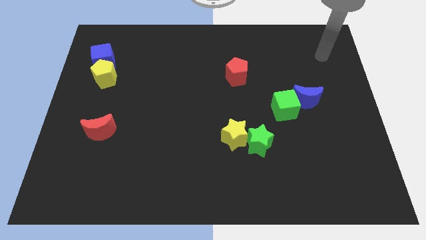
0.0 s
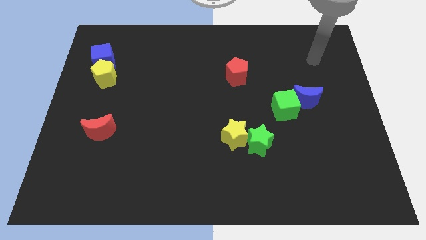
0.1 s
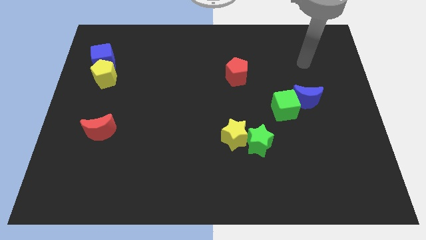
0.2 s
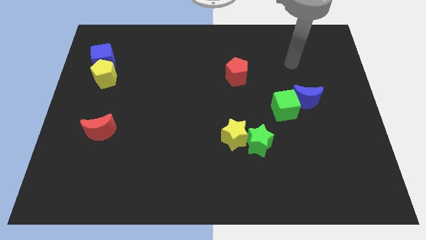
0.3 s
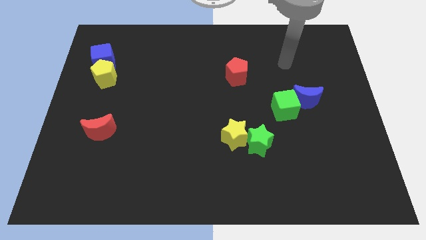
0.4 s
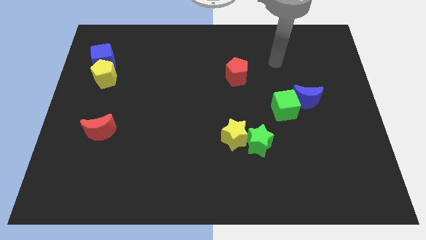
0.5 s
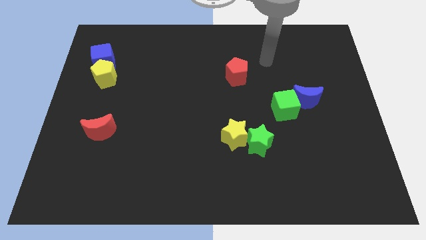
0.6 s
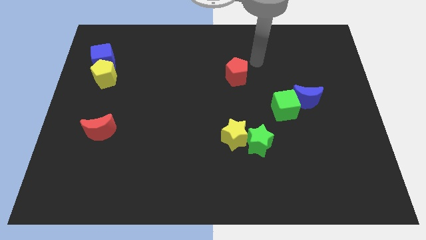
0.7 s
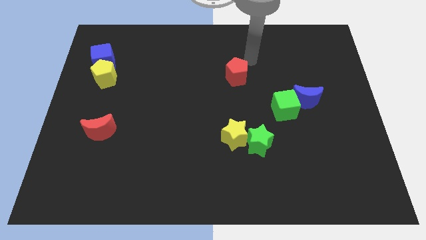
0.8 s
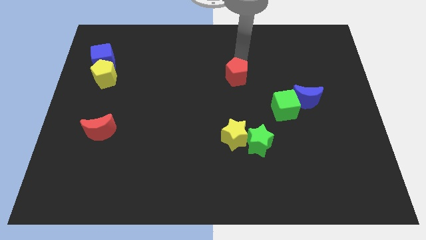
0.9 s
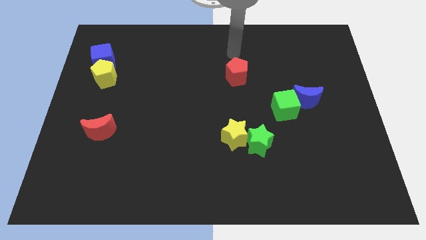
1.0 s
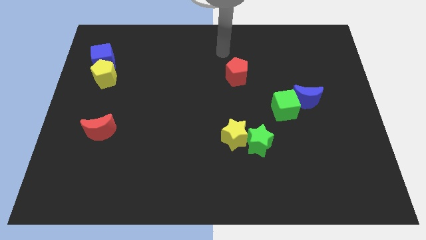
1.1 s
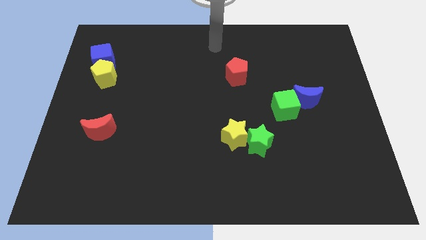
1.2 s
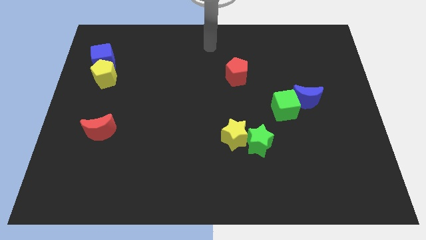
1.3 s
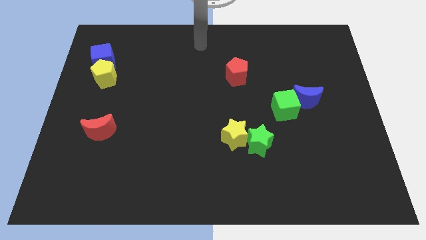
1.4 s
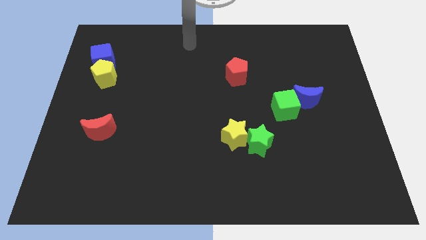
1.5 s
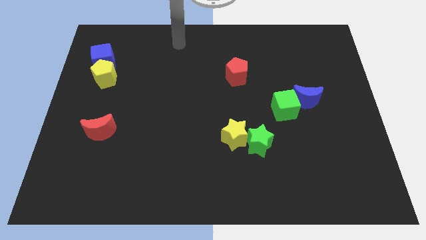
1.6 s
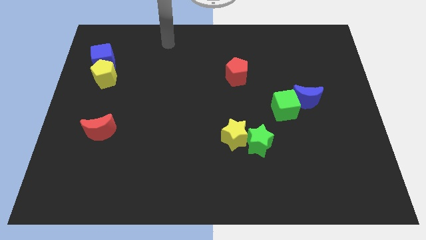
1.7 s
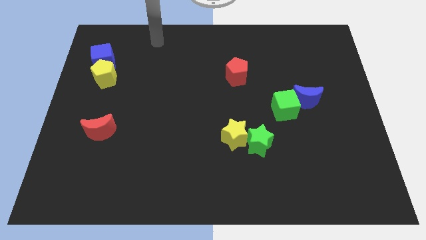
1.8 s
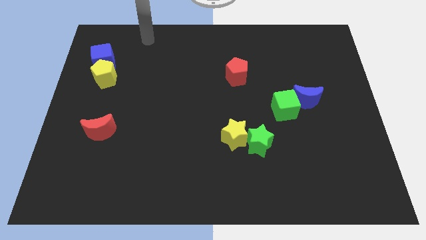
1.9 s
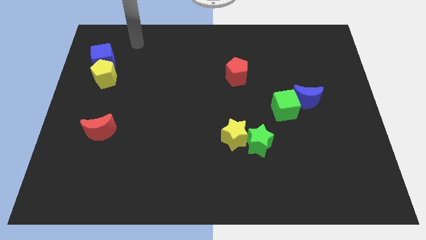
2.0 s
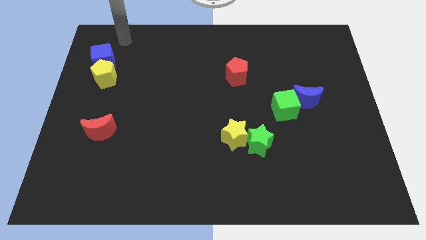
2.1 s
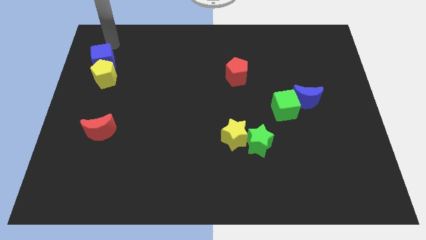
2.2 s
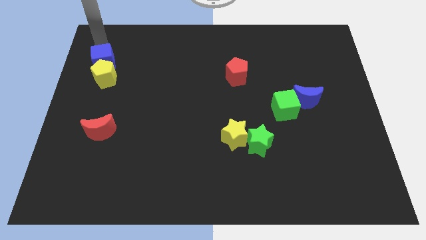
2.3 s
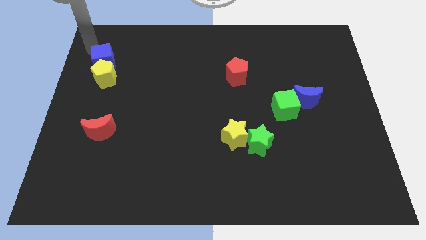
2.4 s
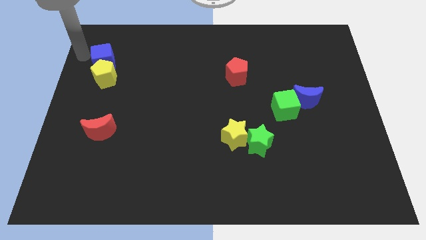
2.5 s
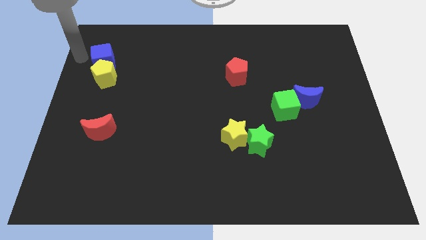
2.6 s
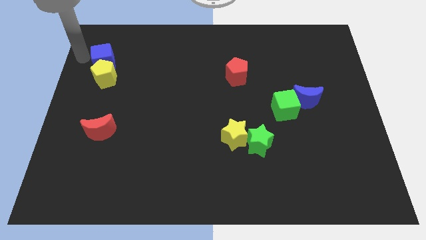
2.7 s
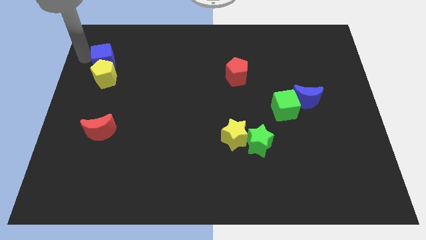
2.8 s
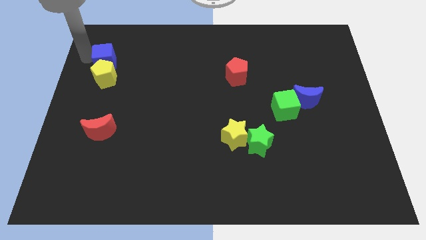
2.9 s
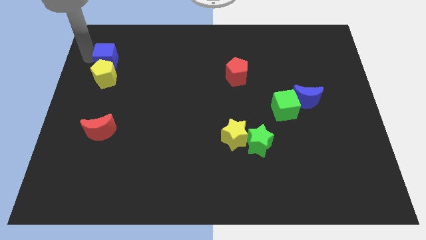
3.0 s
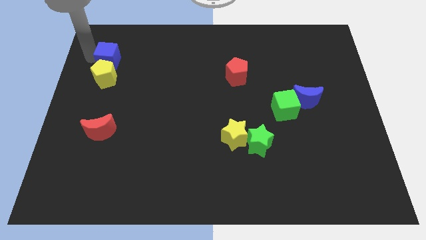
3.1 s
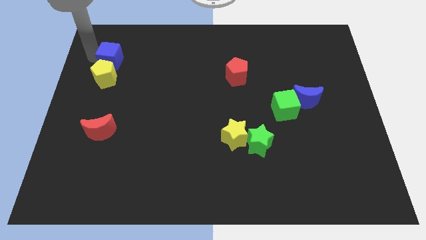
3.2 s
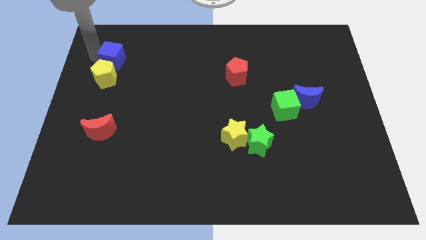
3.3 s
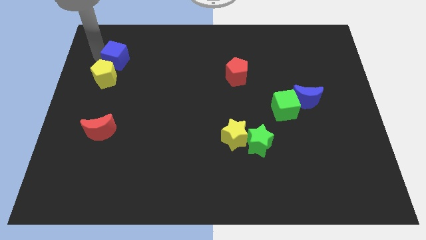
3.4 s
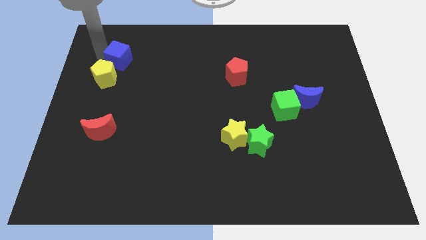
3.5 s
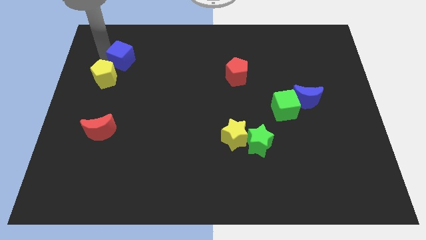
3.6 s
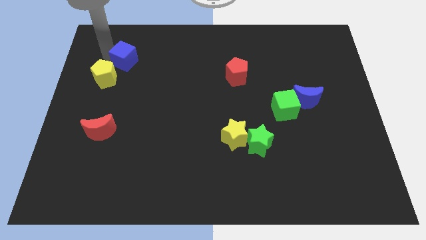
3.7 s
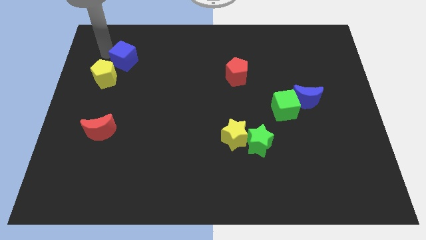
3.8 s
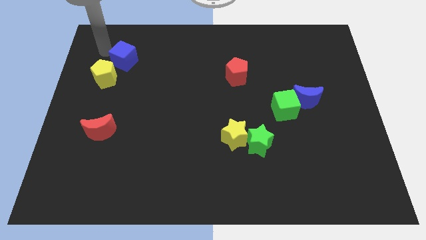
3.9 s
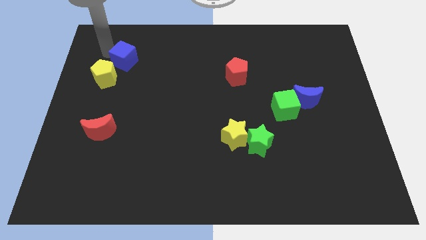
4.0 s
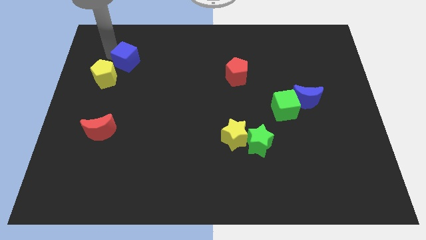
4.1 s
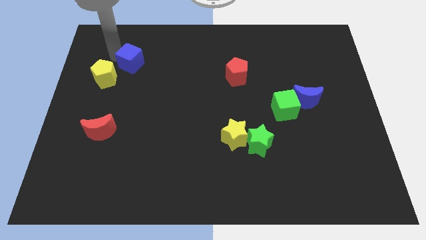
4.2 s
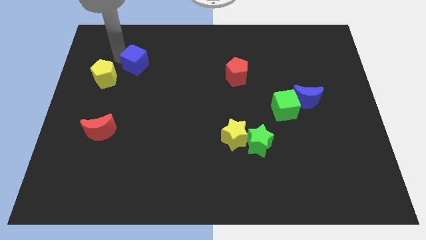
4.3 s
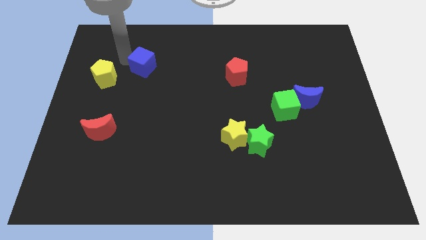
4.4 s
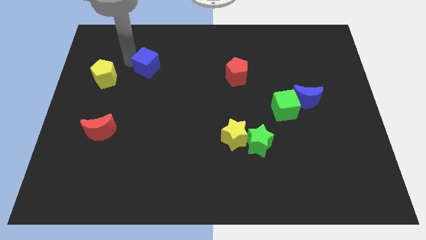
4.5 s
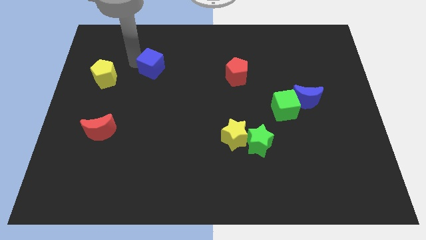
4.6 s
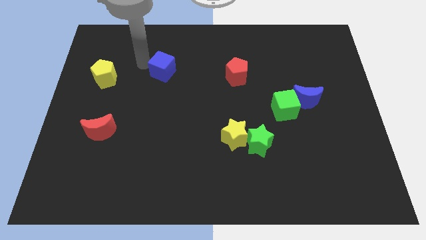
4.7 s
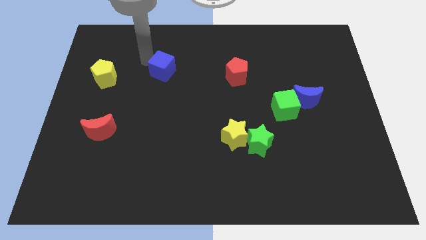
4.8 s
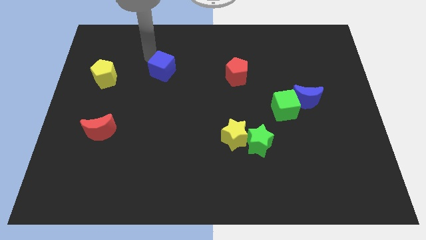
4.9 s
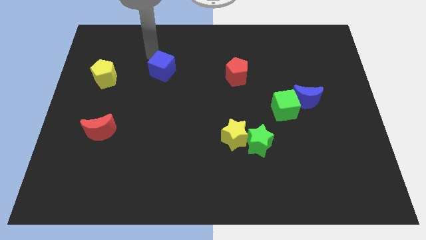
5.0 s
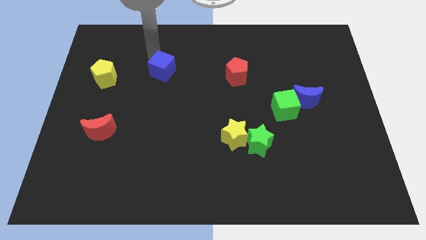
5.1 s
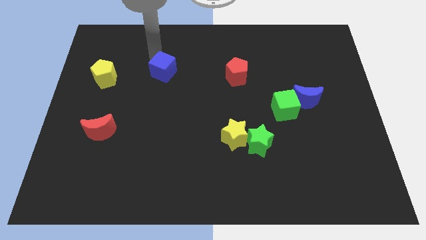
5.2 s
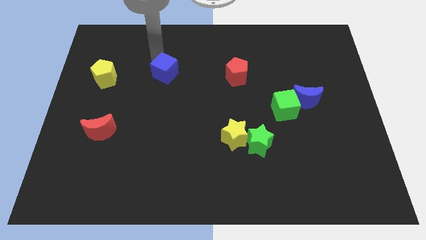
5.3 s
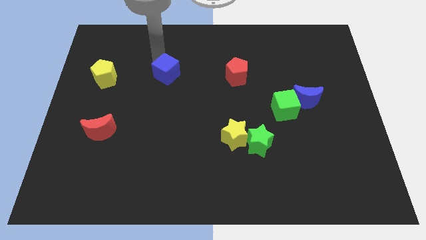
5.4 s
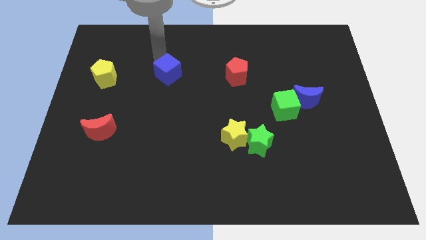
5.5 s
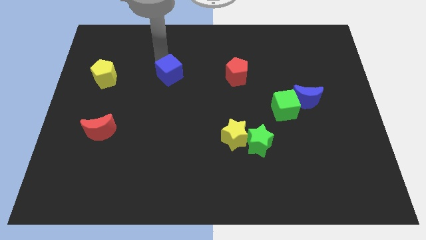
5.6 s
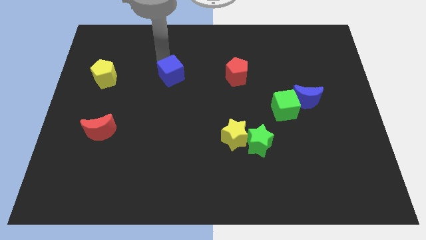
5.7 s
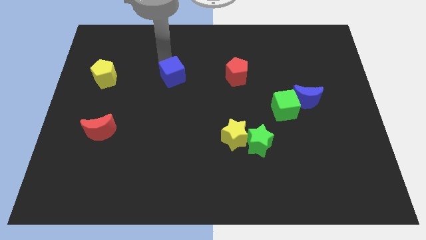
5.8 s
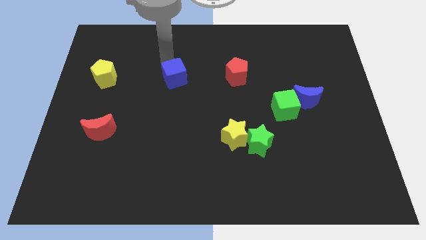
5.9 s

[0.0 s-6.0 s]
slide the blue cube to the middle
